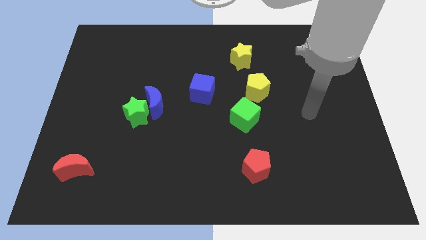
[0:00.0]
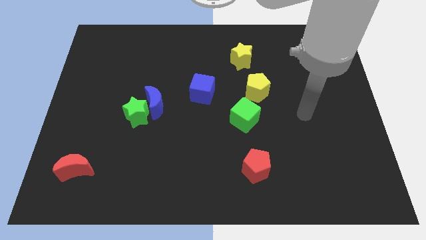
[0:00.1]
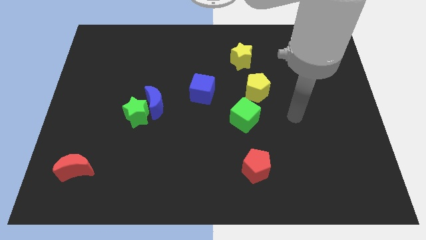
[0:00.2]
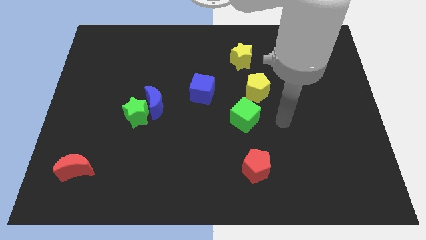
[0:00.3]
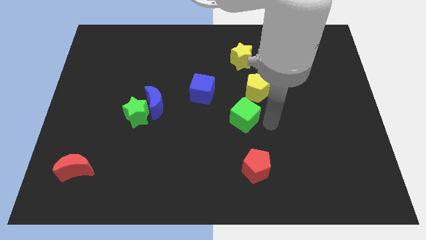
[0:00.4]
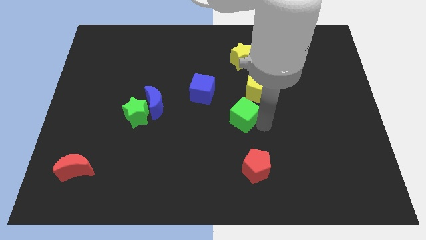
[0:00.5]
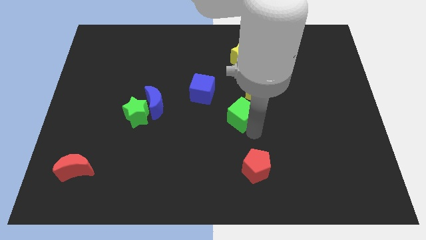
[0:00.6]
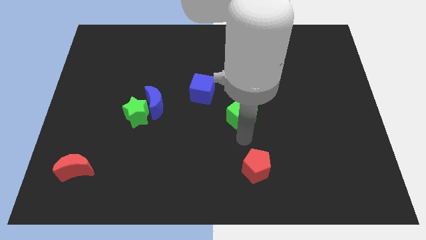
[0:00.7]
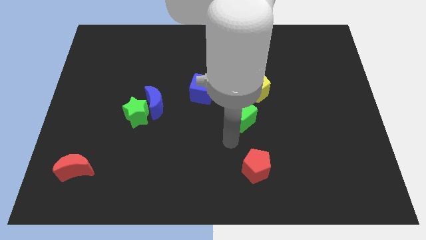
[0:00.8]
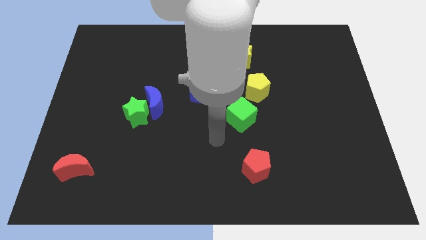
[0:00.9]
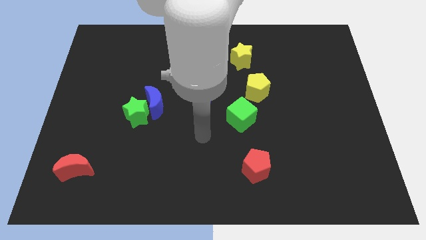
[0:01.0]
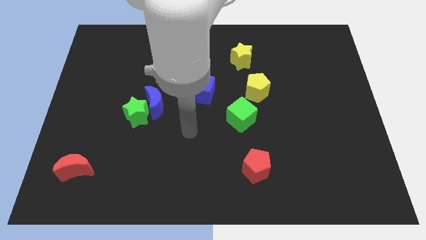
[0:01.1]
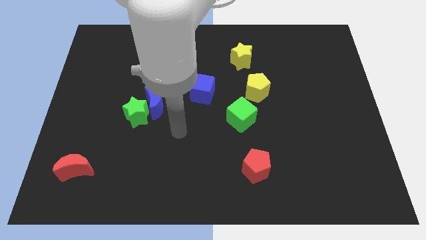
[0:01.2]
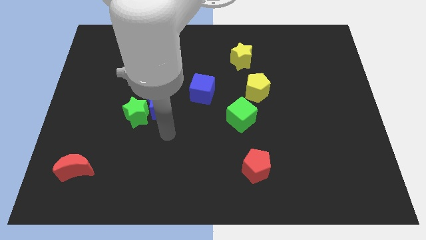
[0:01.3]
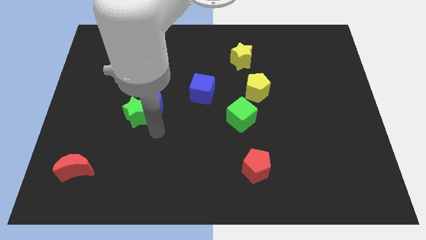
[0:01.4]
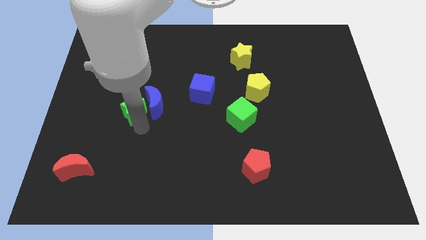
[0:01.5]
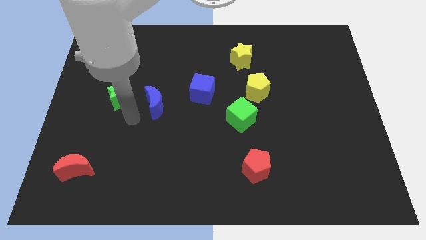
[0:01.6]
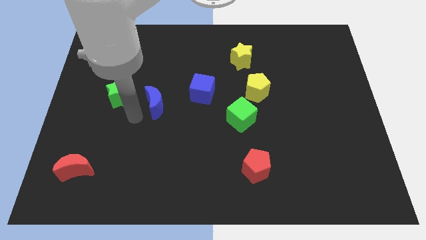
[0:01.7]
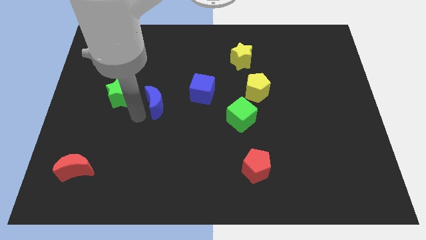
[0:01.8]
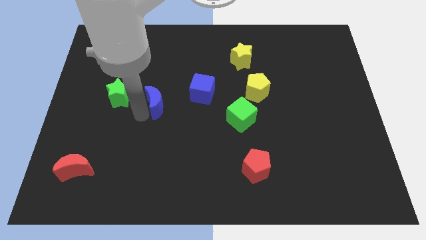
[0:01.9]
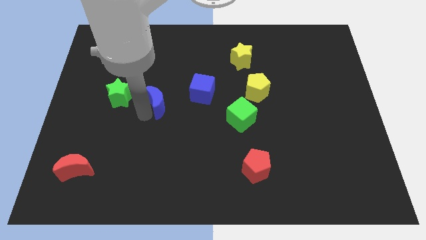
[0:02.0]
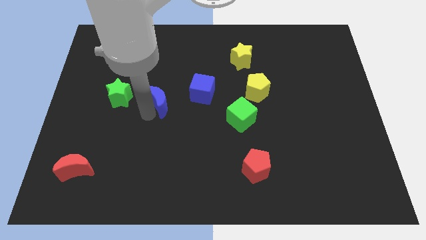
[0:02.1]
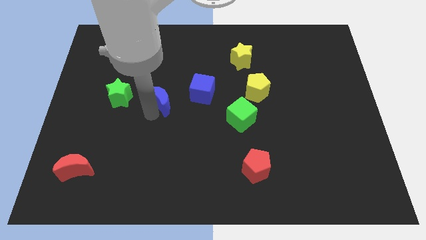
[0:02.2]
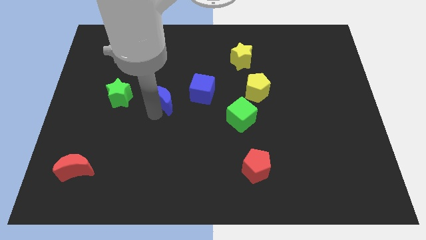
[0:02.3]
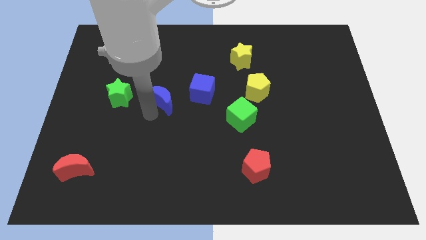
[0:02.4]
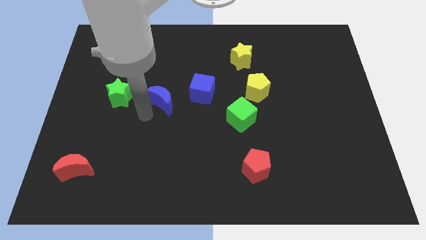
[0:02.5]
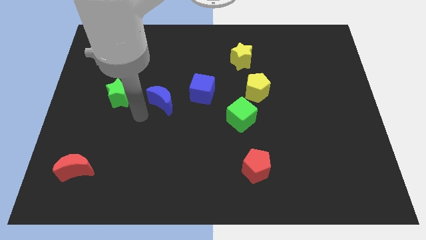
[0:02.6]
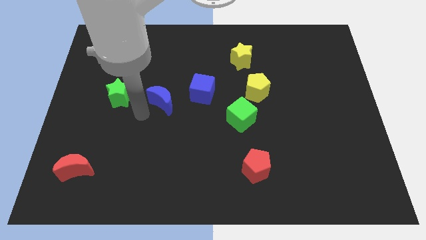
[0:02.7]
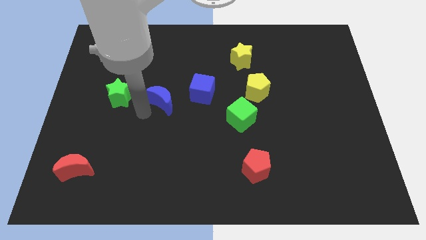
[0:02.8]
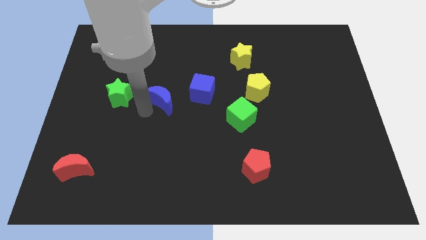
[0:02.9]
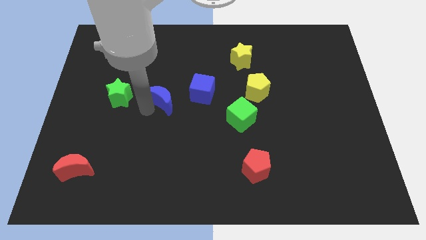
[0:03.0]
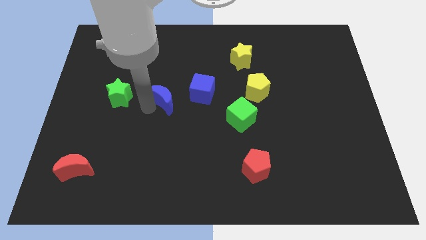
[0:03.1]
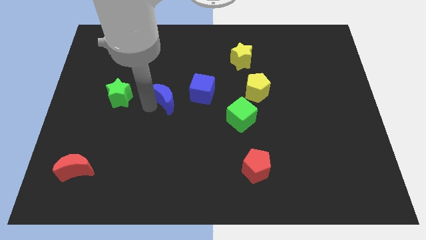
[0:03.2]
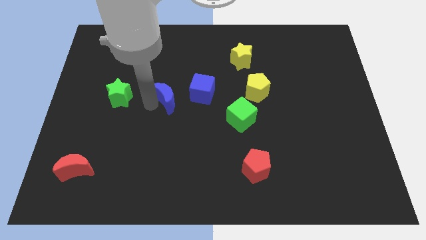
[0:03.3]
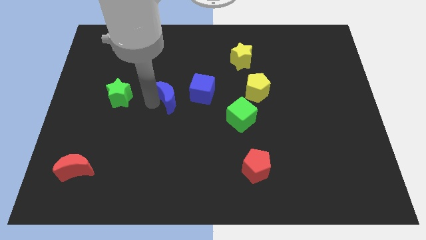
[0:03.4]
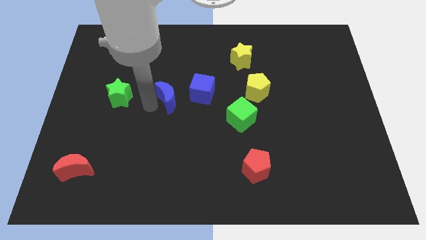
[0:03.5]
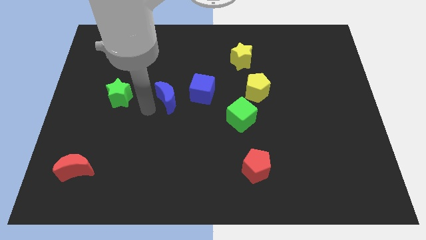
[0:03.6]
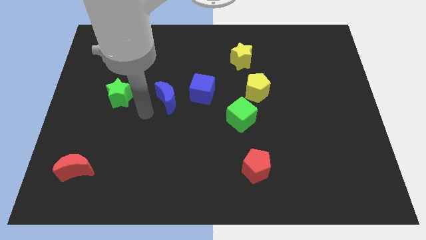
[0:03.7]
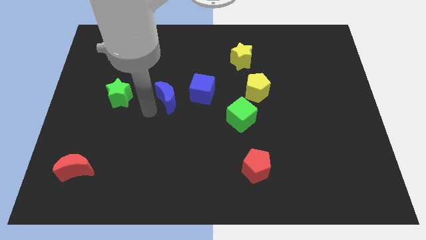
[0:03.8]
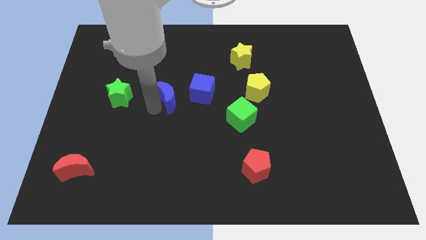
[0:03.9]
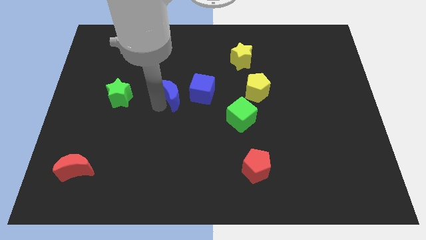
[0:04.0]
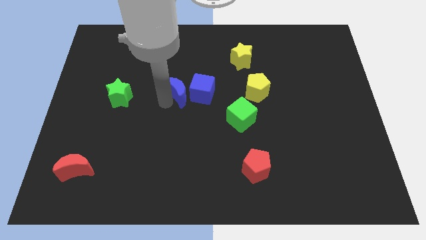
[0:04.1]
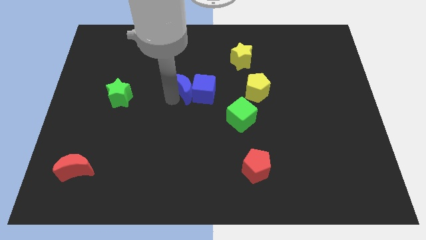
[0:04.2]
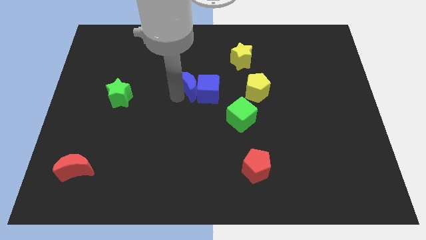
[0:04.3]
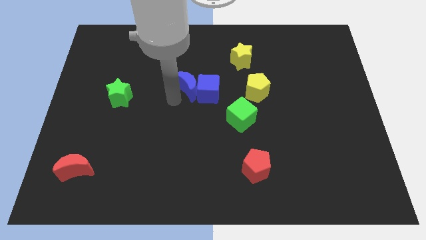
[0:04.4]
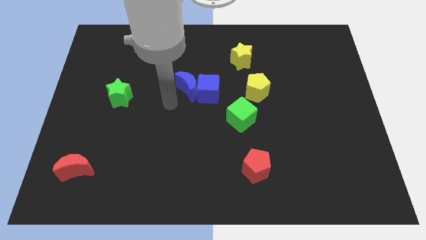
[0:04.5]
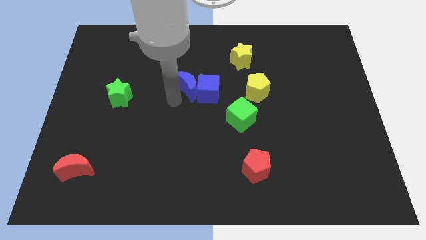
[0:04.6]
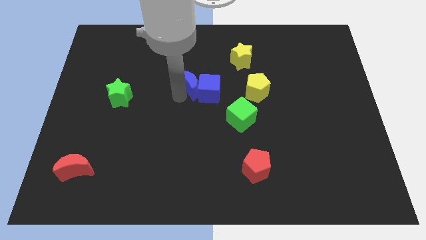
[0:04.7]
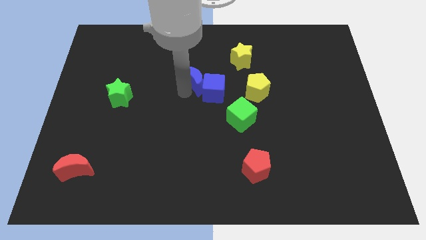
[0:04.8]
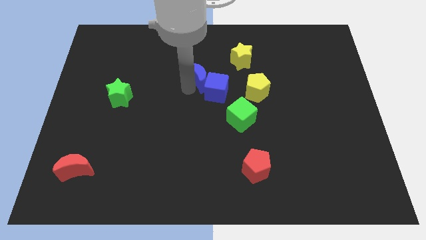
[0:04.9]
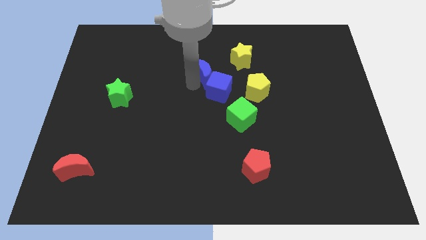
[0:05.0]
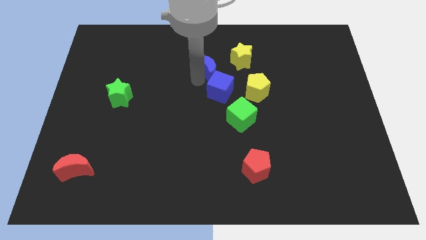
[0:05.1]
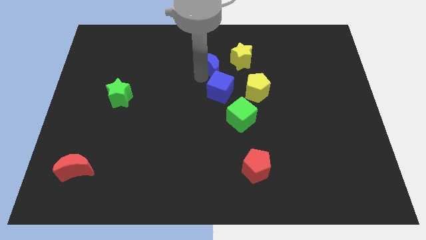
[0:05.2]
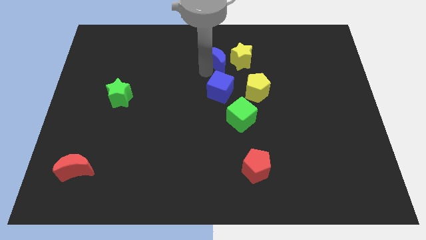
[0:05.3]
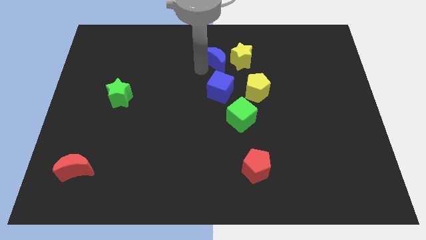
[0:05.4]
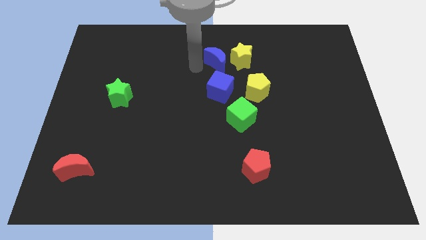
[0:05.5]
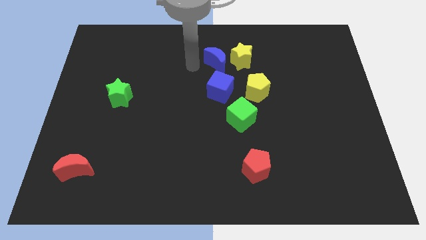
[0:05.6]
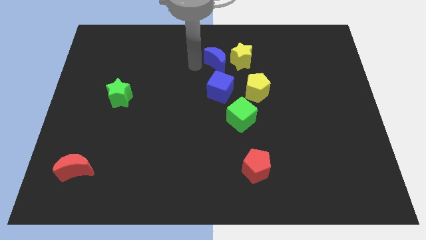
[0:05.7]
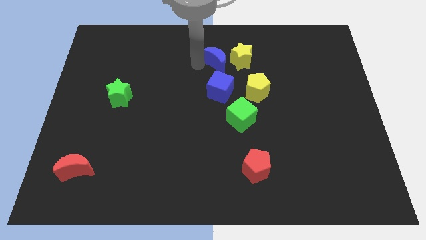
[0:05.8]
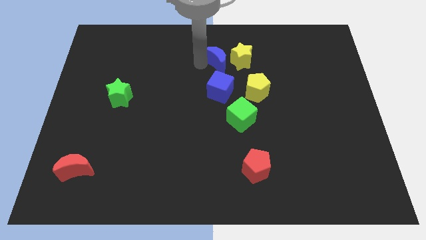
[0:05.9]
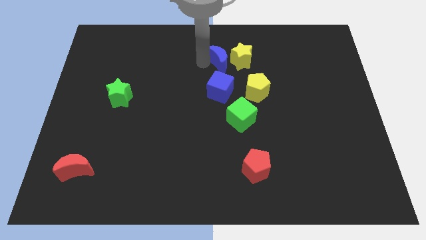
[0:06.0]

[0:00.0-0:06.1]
push the blue moon close to the yellow star
